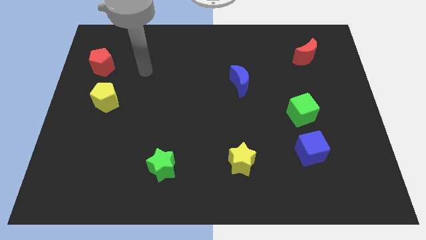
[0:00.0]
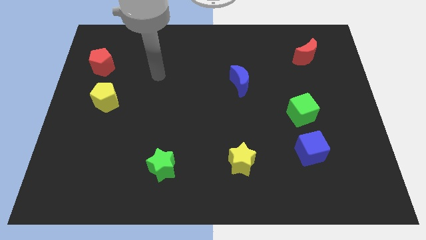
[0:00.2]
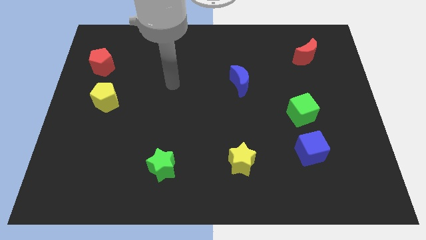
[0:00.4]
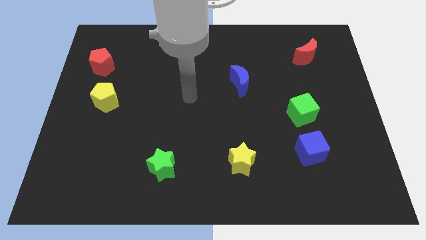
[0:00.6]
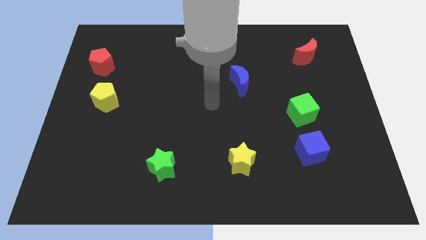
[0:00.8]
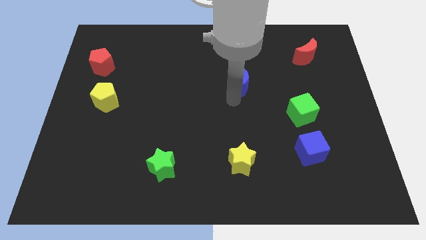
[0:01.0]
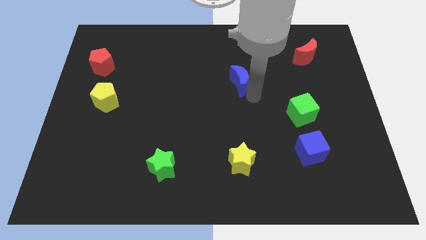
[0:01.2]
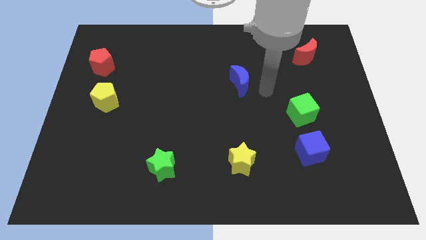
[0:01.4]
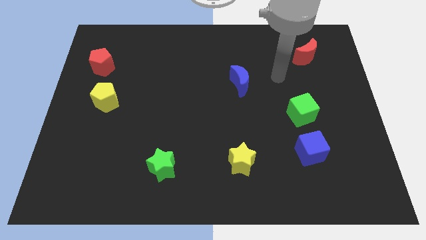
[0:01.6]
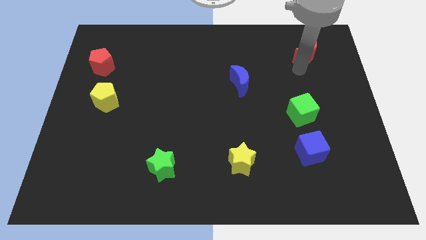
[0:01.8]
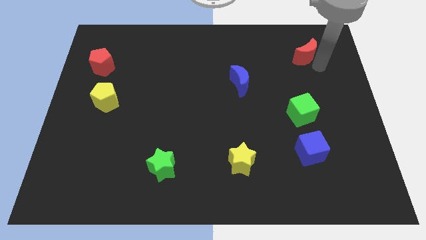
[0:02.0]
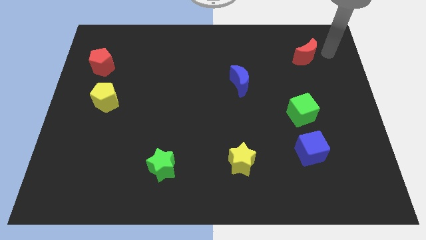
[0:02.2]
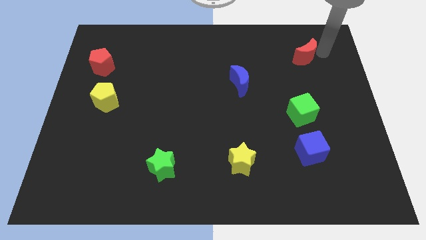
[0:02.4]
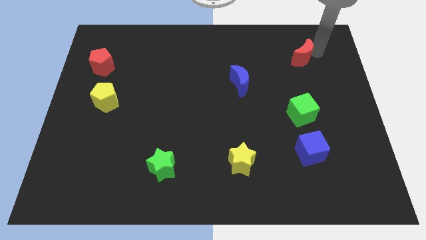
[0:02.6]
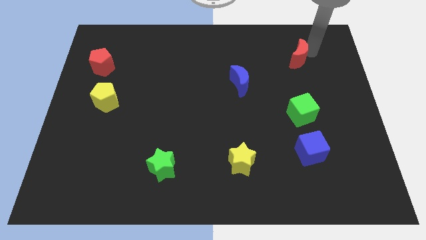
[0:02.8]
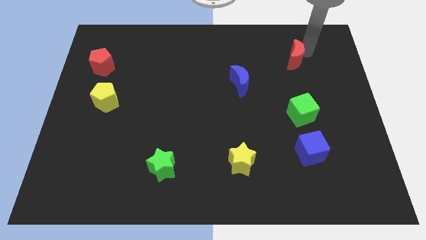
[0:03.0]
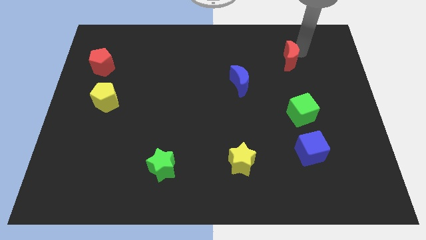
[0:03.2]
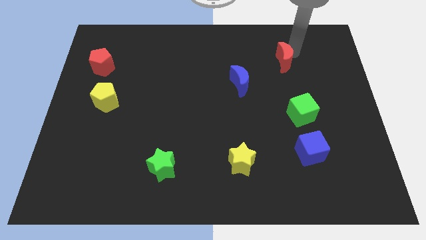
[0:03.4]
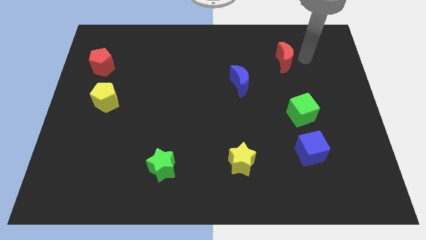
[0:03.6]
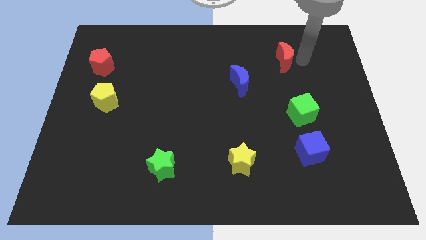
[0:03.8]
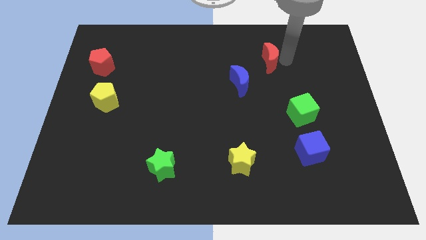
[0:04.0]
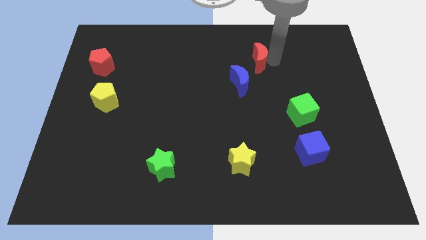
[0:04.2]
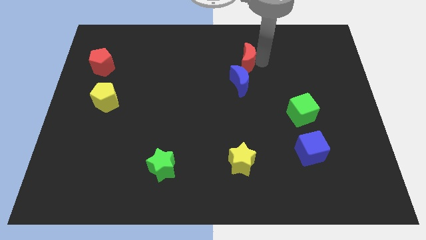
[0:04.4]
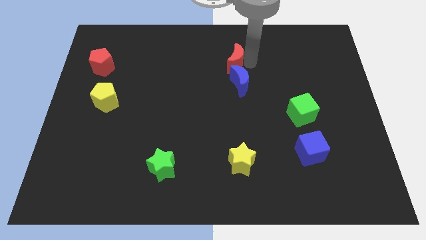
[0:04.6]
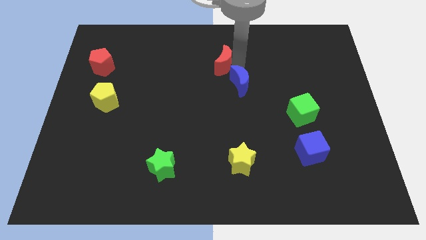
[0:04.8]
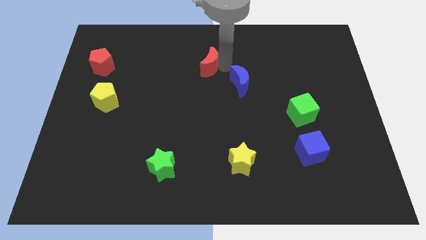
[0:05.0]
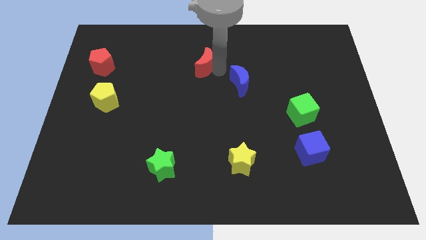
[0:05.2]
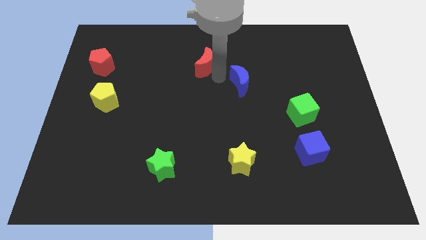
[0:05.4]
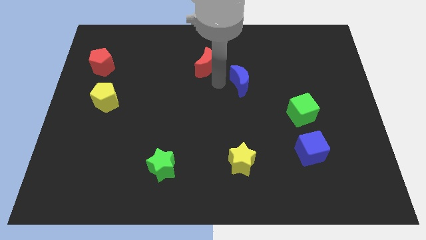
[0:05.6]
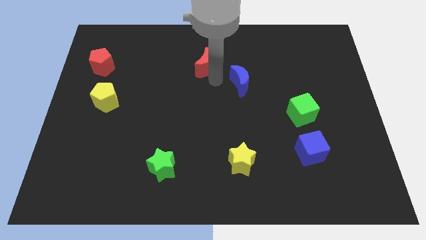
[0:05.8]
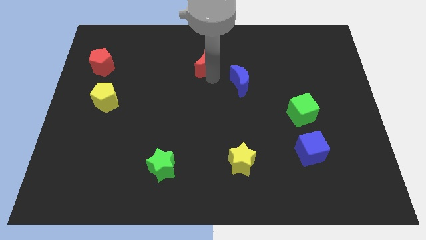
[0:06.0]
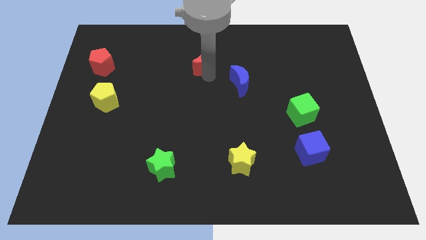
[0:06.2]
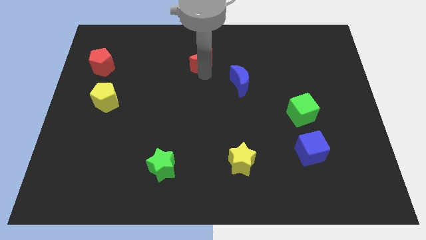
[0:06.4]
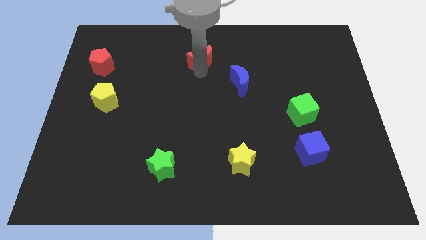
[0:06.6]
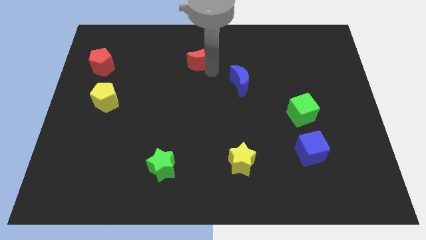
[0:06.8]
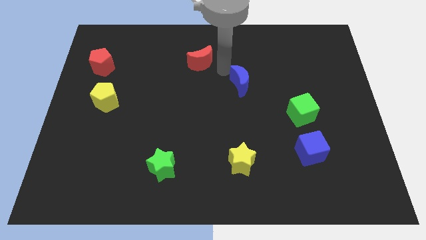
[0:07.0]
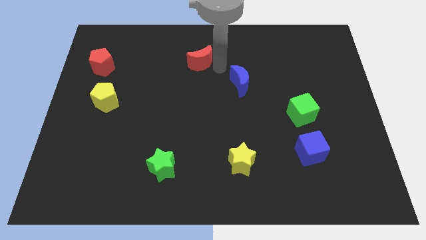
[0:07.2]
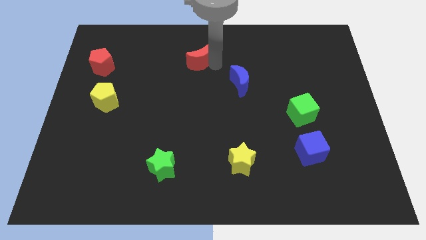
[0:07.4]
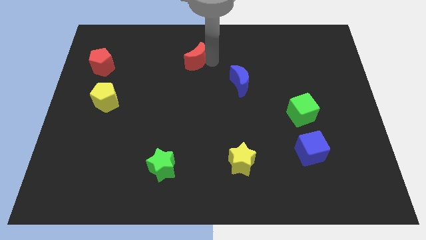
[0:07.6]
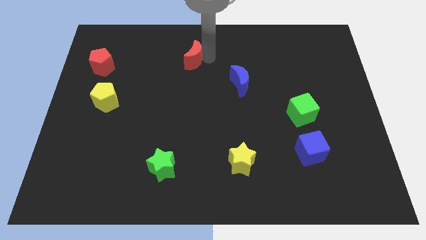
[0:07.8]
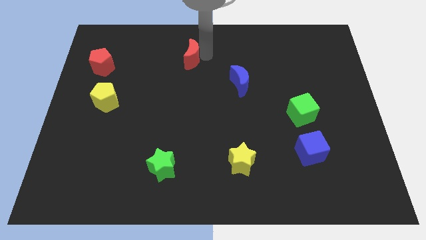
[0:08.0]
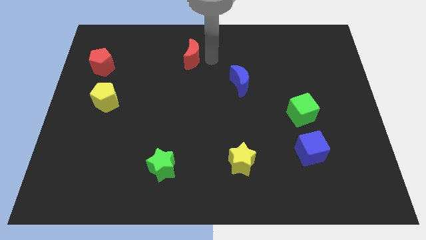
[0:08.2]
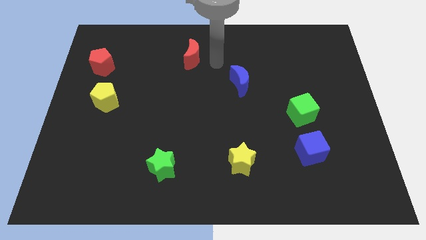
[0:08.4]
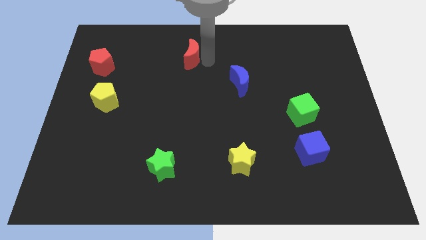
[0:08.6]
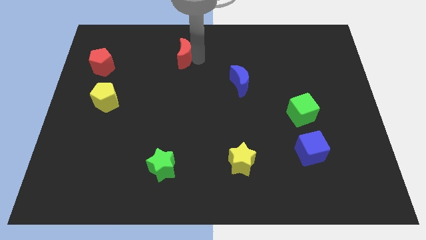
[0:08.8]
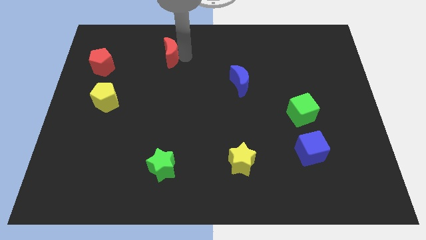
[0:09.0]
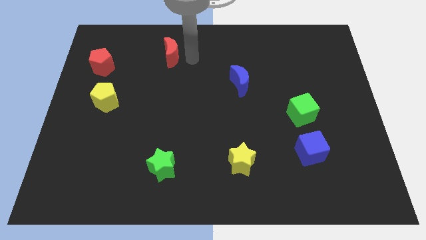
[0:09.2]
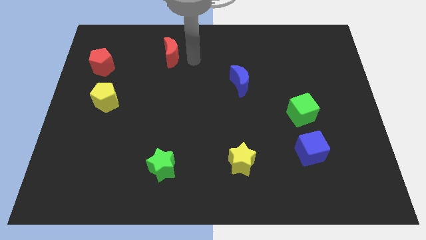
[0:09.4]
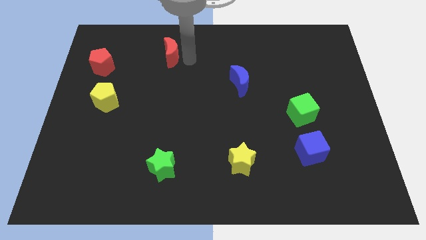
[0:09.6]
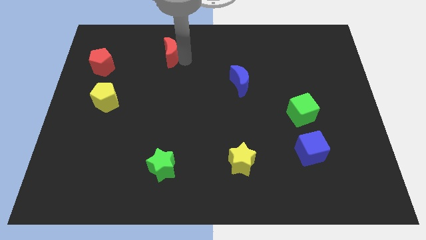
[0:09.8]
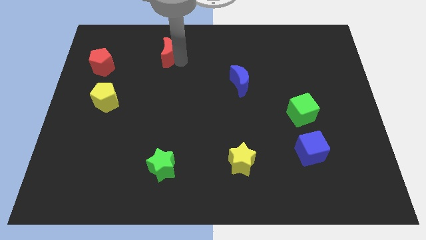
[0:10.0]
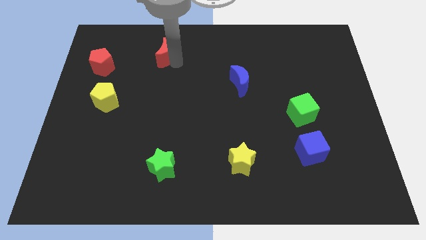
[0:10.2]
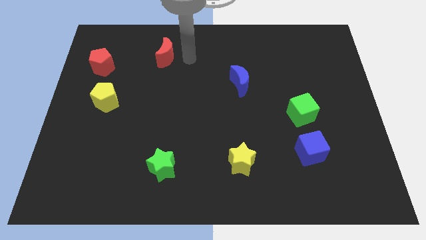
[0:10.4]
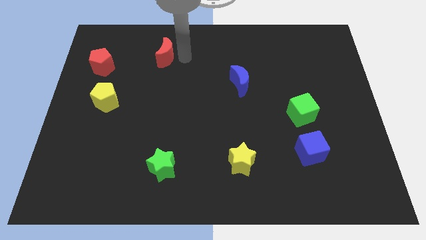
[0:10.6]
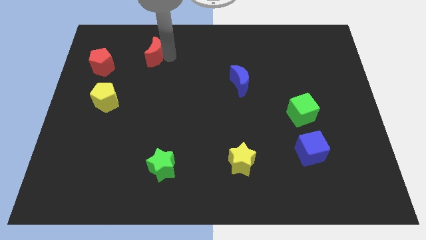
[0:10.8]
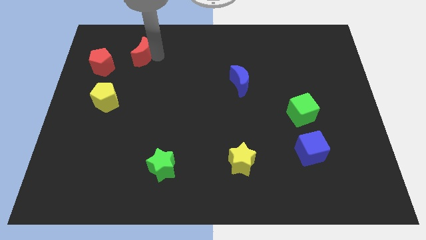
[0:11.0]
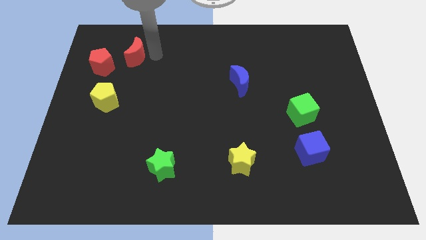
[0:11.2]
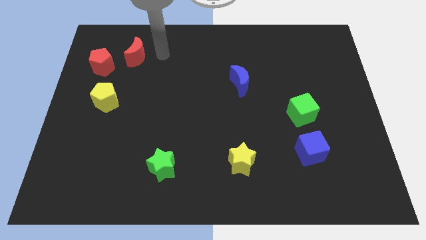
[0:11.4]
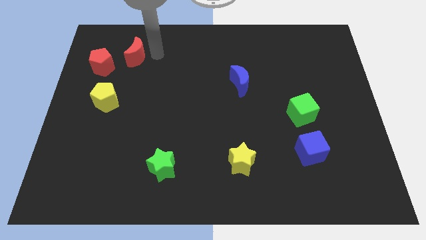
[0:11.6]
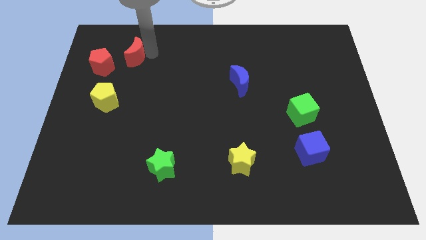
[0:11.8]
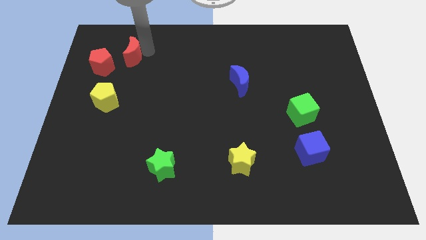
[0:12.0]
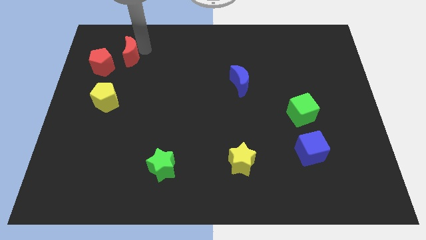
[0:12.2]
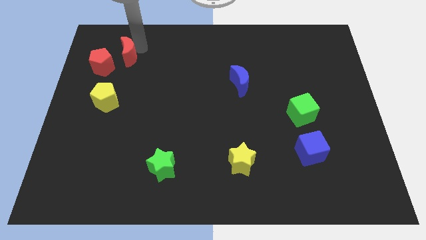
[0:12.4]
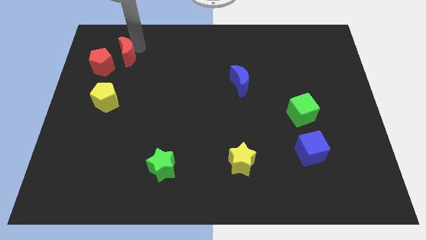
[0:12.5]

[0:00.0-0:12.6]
move the red moon above the yellow pentagon
